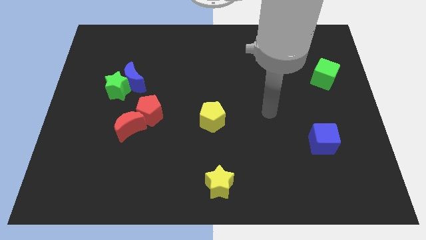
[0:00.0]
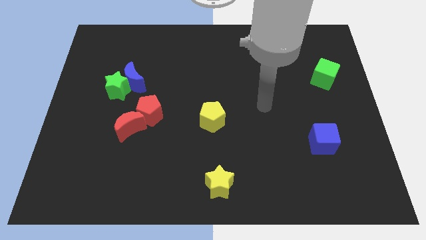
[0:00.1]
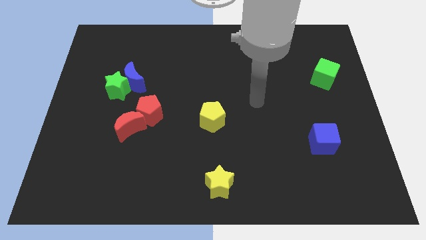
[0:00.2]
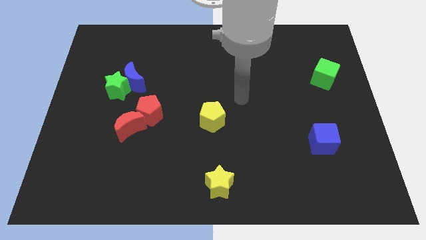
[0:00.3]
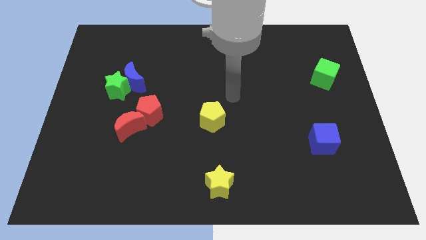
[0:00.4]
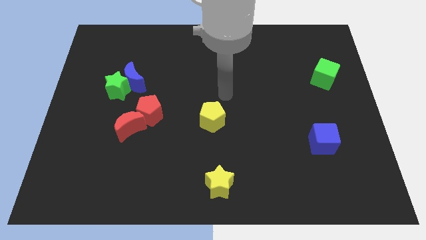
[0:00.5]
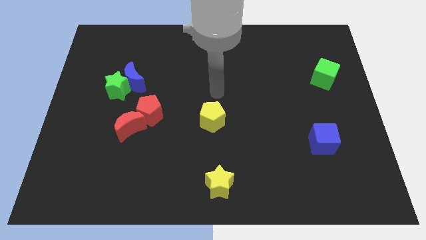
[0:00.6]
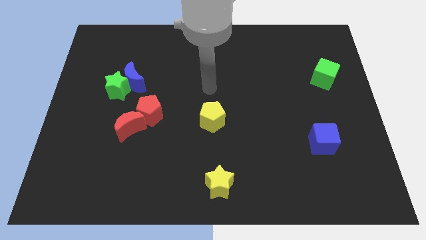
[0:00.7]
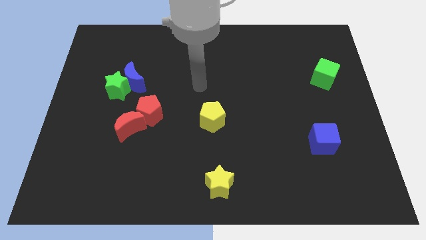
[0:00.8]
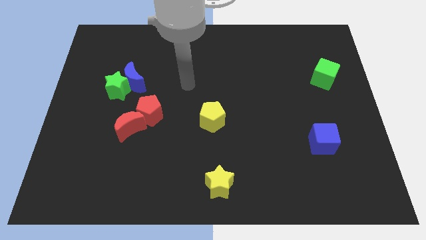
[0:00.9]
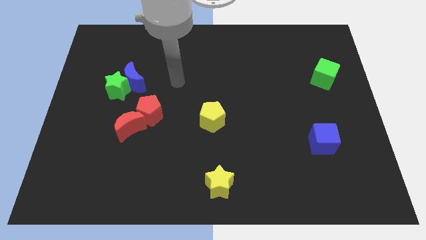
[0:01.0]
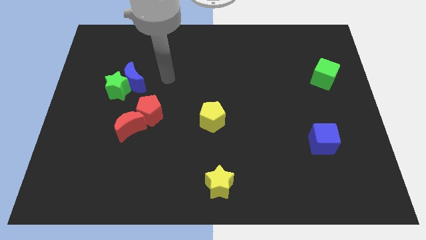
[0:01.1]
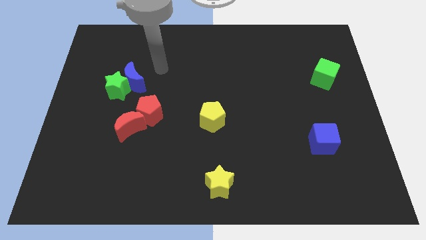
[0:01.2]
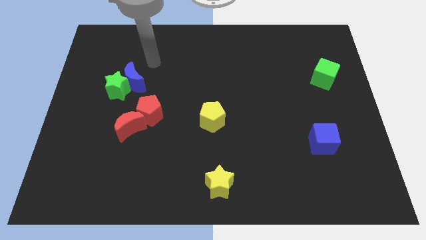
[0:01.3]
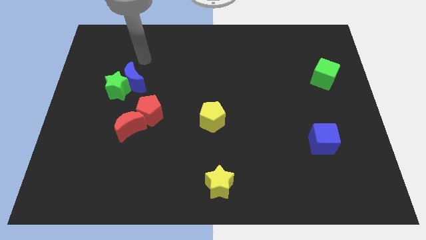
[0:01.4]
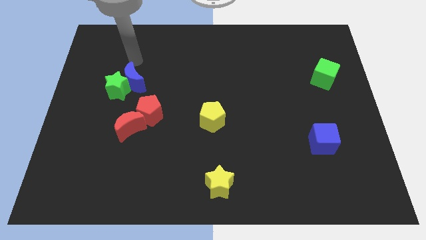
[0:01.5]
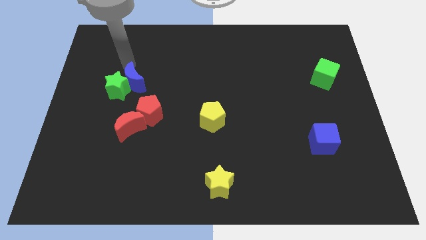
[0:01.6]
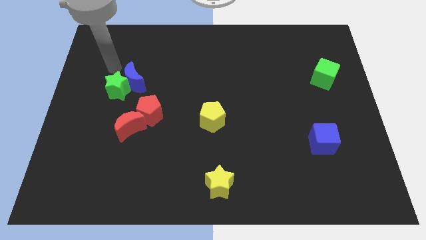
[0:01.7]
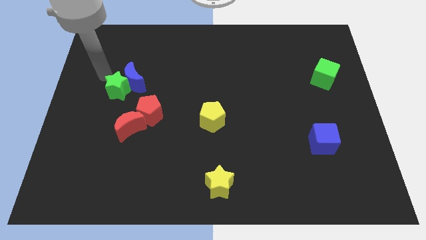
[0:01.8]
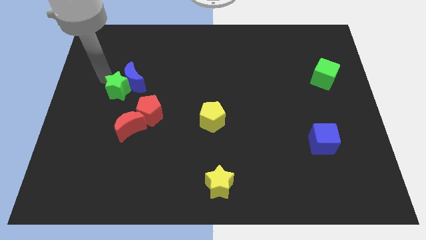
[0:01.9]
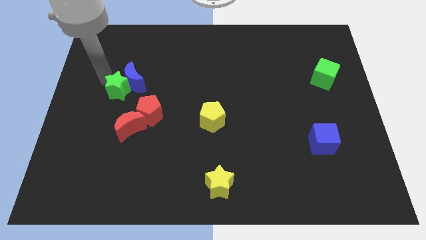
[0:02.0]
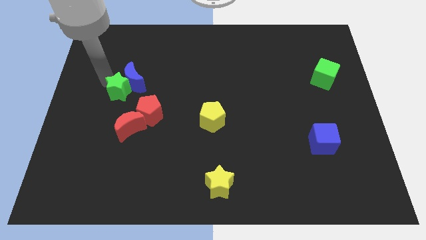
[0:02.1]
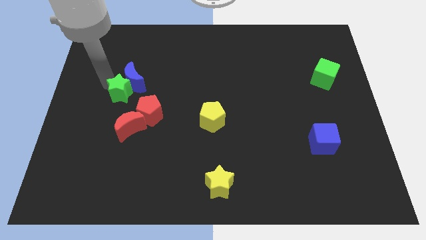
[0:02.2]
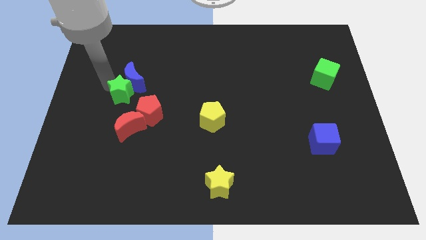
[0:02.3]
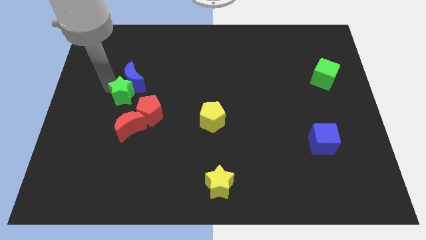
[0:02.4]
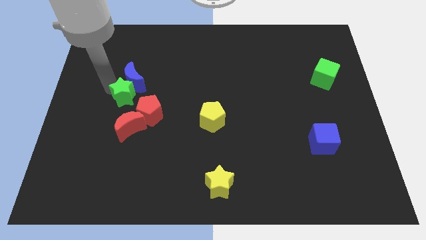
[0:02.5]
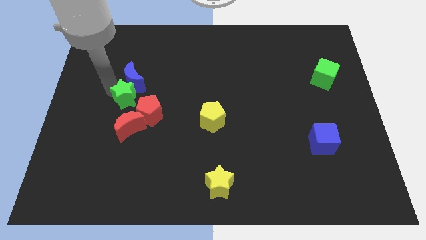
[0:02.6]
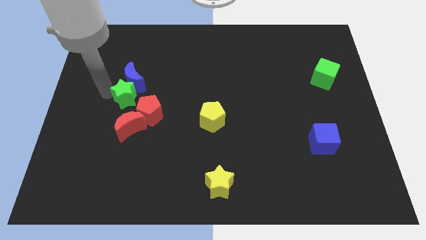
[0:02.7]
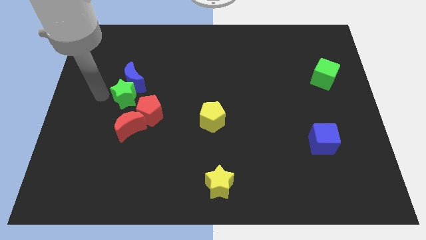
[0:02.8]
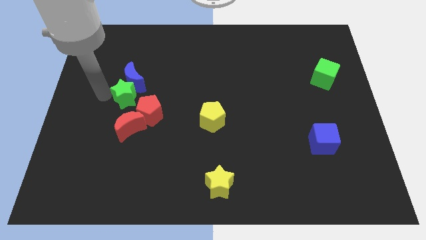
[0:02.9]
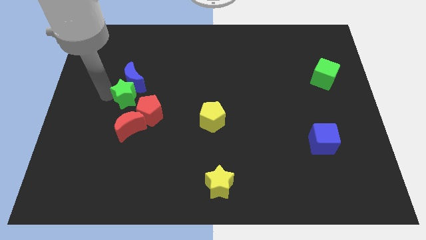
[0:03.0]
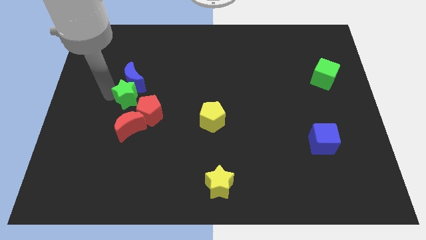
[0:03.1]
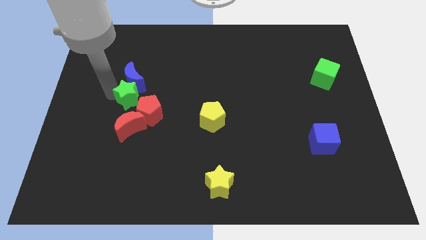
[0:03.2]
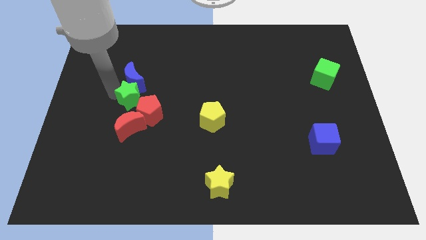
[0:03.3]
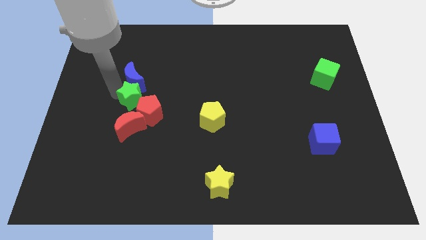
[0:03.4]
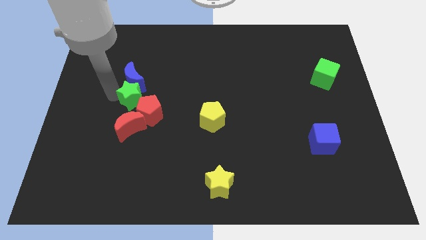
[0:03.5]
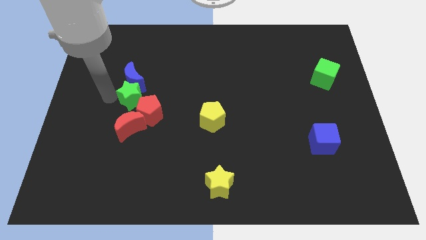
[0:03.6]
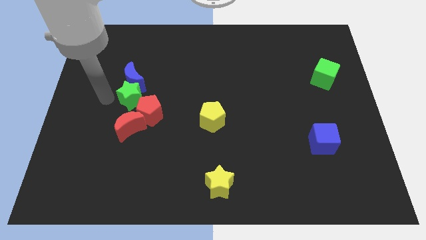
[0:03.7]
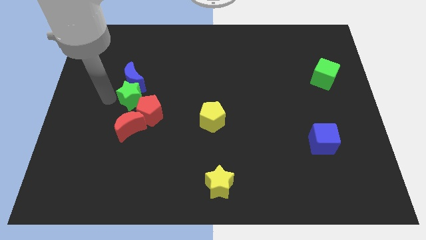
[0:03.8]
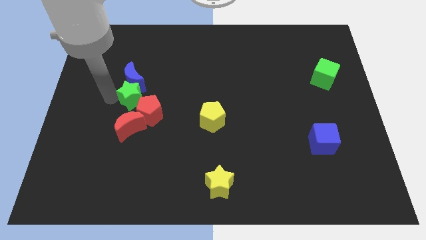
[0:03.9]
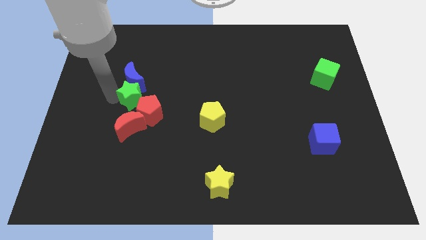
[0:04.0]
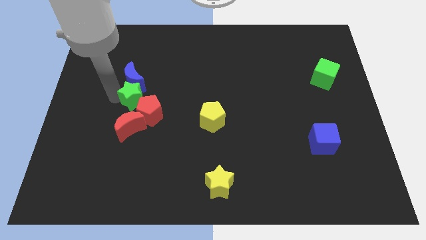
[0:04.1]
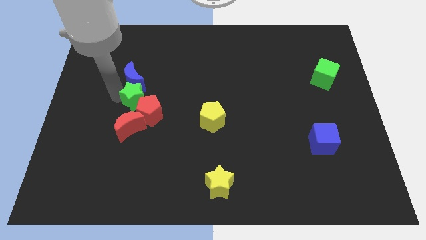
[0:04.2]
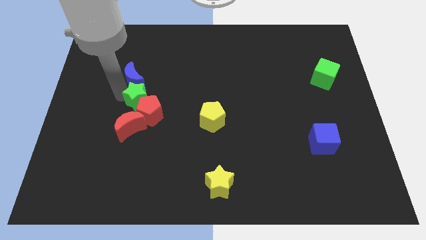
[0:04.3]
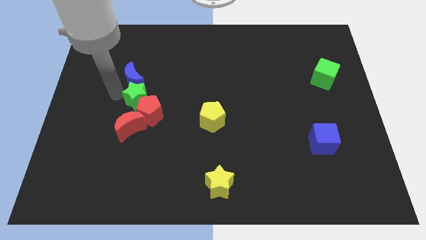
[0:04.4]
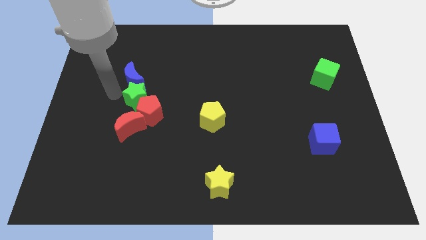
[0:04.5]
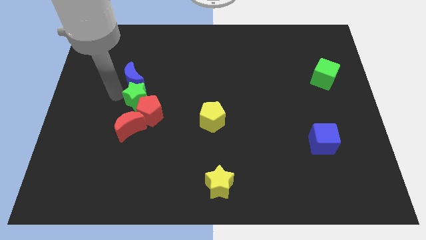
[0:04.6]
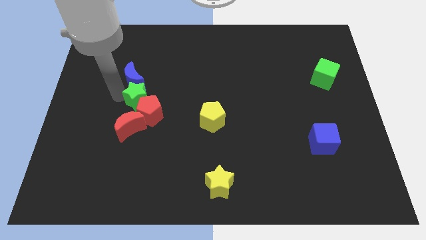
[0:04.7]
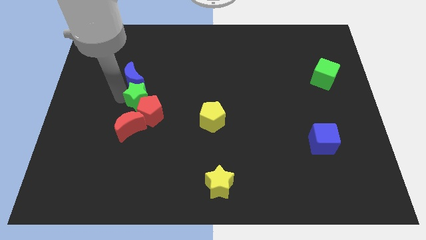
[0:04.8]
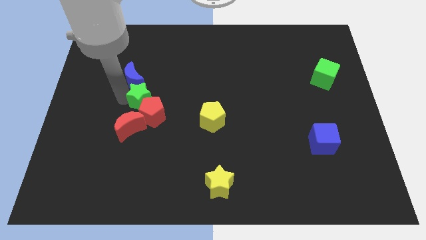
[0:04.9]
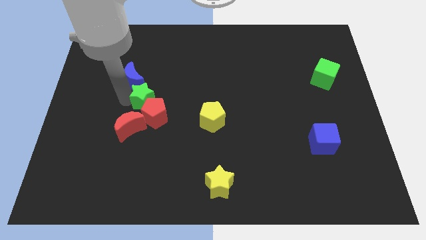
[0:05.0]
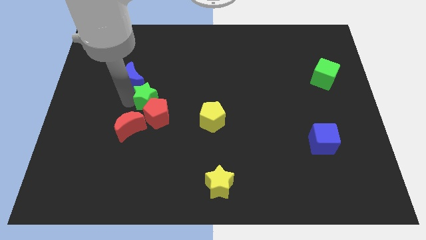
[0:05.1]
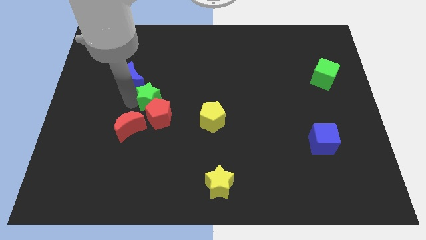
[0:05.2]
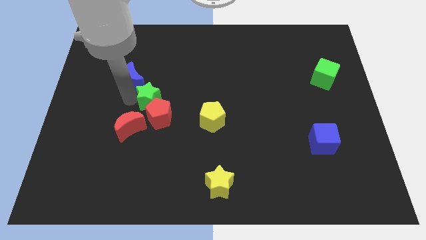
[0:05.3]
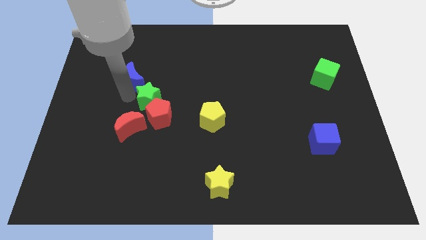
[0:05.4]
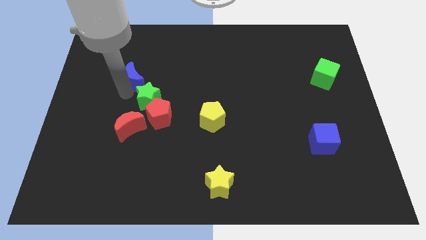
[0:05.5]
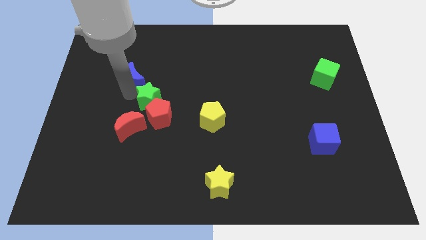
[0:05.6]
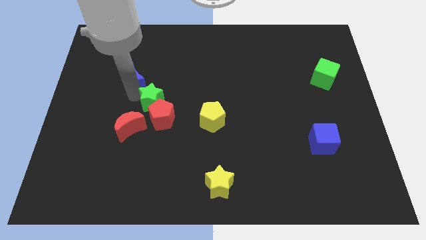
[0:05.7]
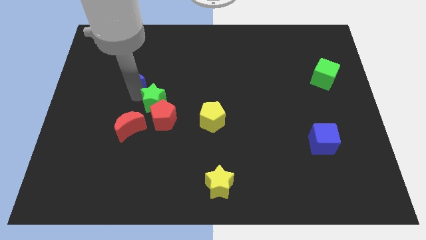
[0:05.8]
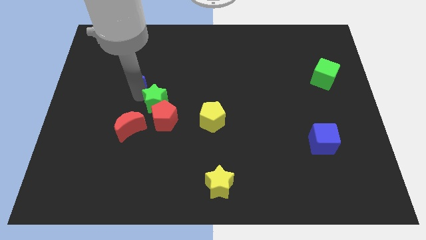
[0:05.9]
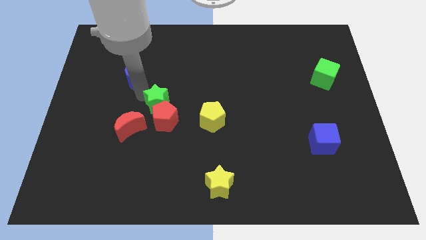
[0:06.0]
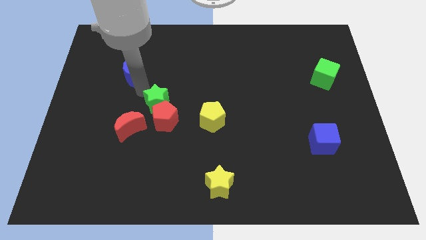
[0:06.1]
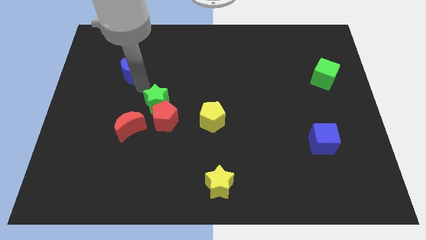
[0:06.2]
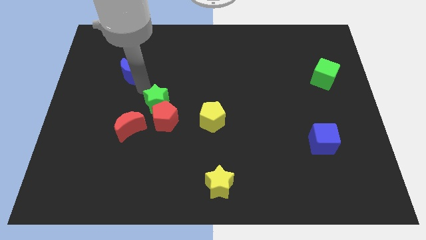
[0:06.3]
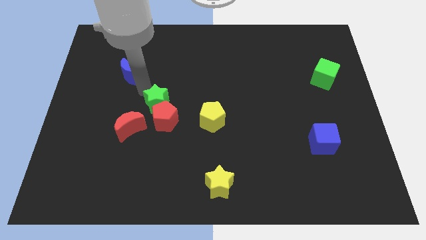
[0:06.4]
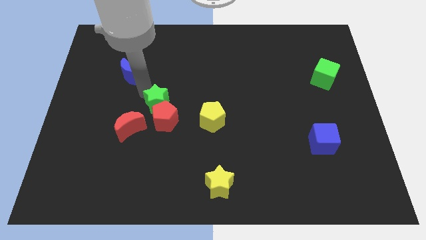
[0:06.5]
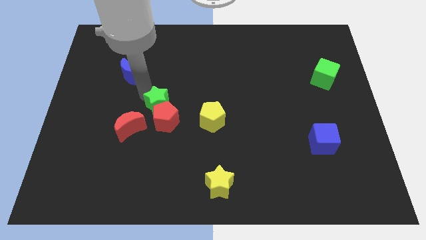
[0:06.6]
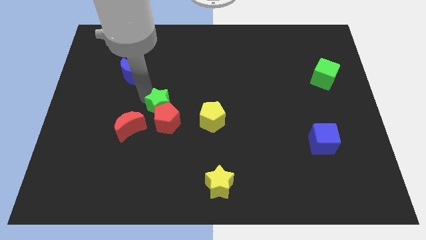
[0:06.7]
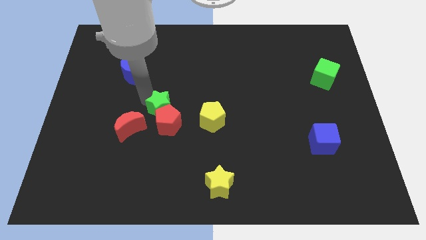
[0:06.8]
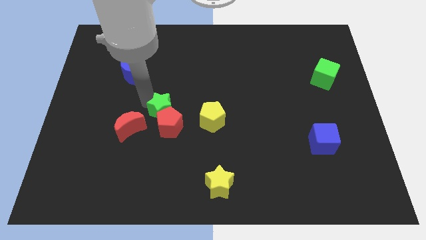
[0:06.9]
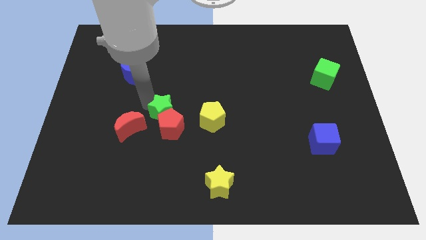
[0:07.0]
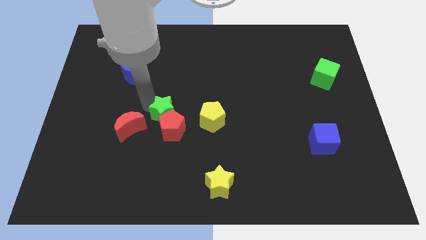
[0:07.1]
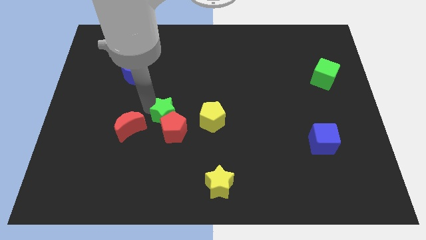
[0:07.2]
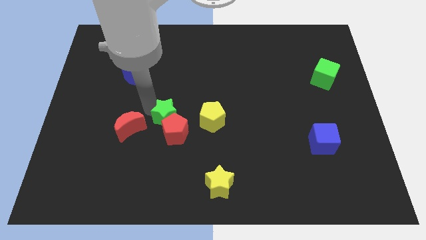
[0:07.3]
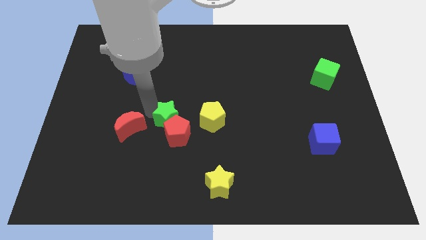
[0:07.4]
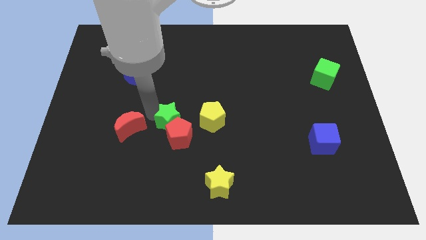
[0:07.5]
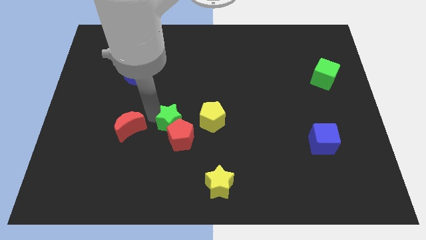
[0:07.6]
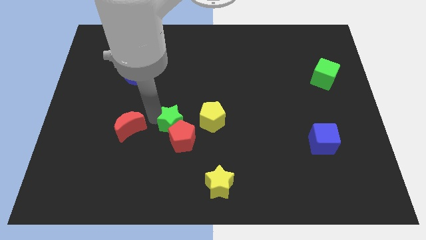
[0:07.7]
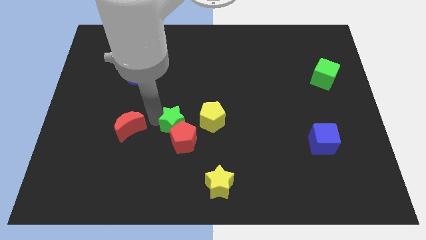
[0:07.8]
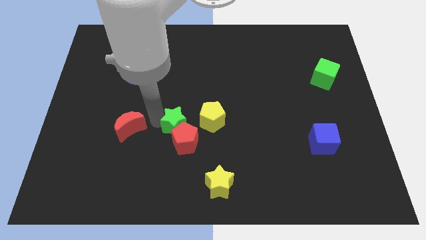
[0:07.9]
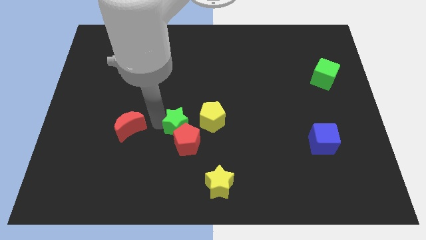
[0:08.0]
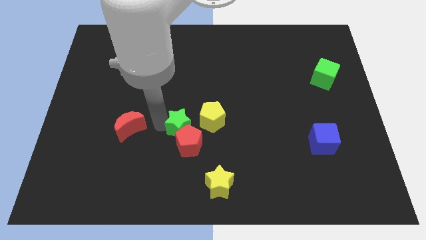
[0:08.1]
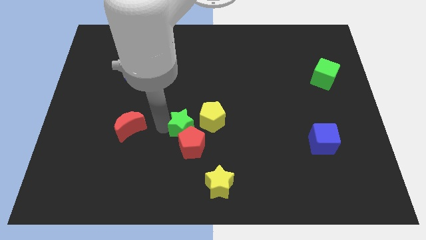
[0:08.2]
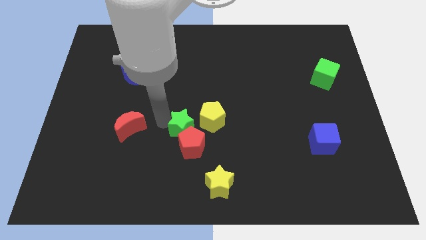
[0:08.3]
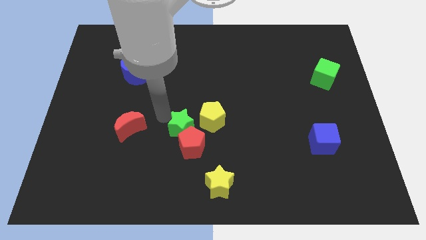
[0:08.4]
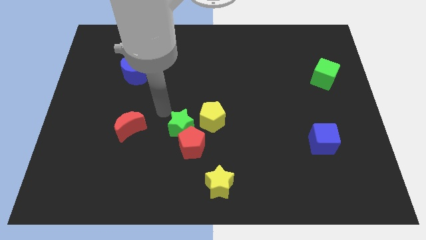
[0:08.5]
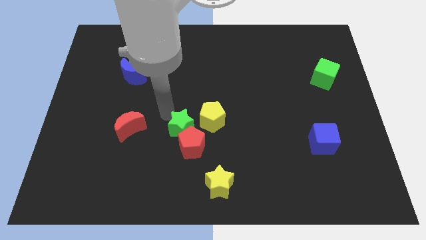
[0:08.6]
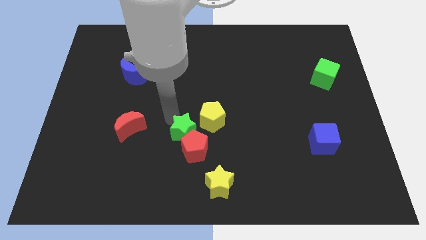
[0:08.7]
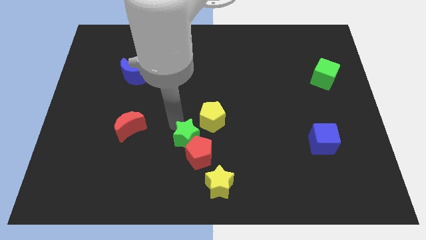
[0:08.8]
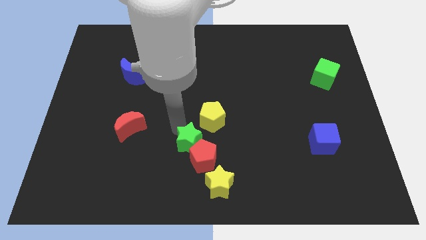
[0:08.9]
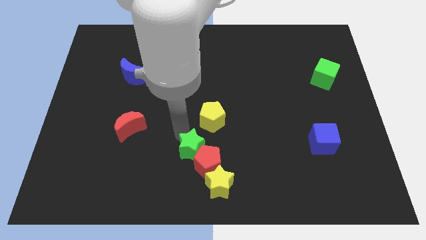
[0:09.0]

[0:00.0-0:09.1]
slide the green star to the bottom of the yellow pentagon
